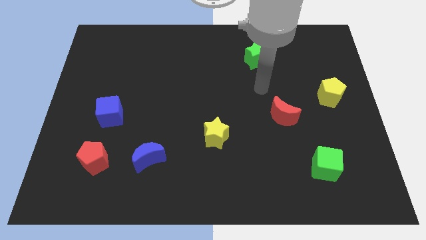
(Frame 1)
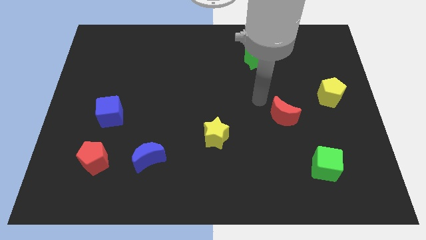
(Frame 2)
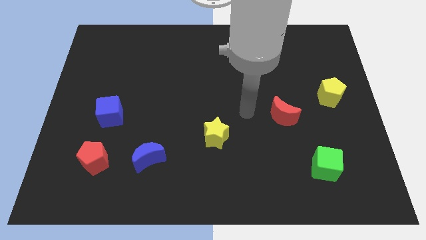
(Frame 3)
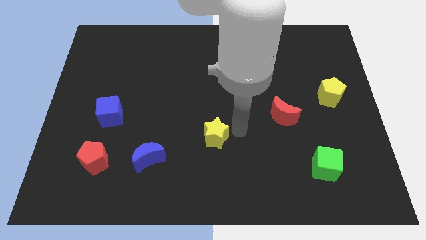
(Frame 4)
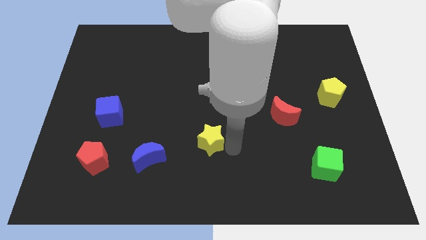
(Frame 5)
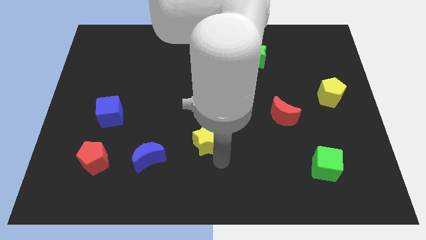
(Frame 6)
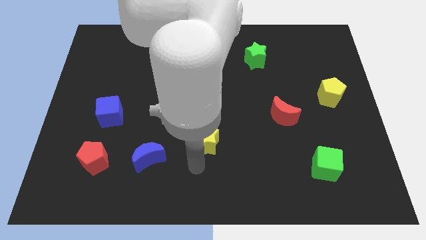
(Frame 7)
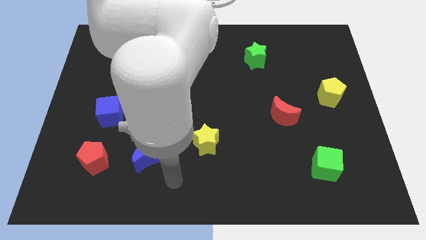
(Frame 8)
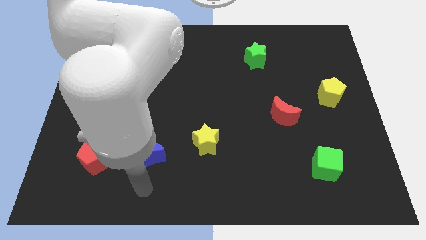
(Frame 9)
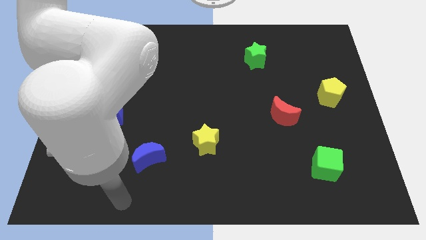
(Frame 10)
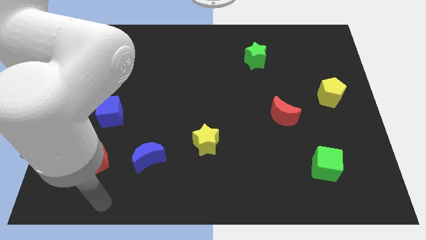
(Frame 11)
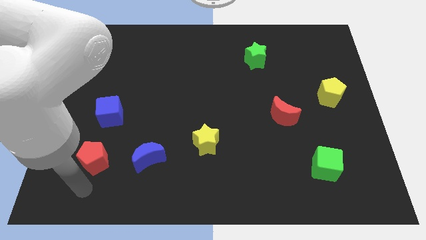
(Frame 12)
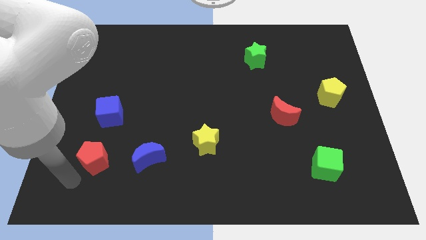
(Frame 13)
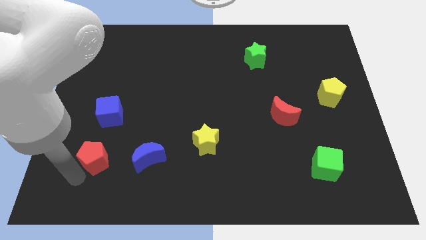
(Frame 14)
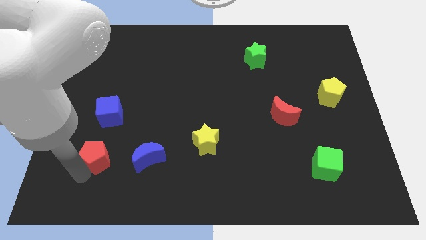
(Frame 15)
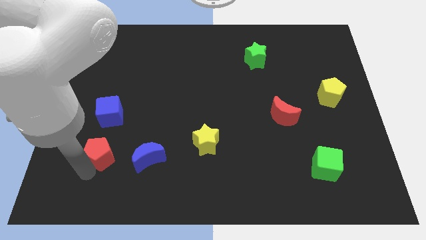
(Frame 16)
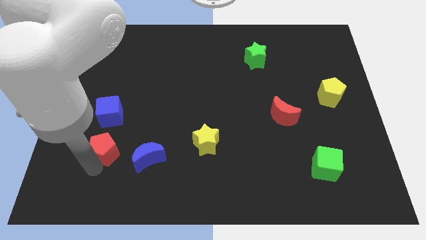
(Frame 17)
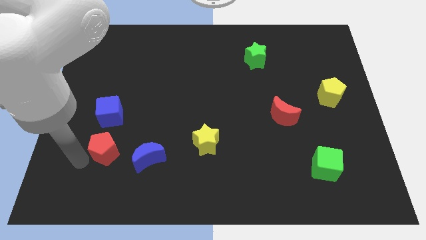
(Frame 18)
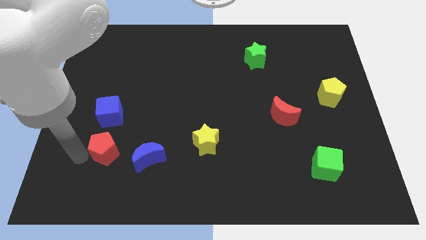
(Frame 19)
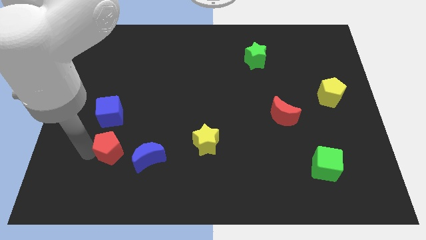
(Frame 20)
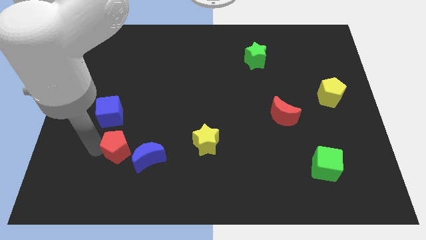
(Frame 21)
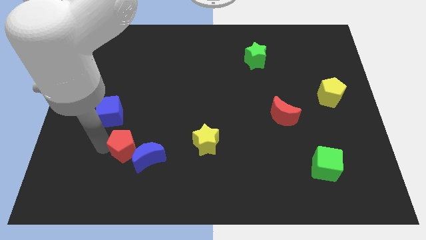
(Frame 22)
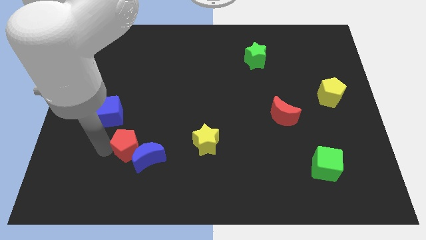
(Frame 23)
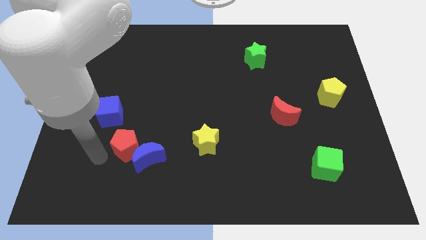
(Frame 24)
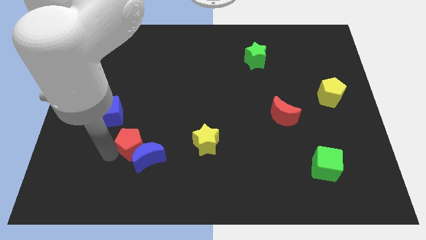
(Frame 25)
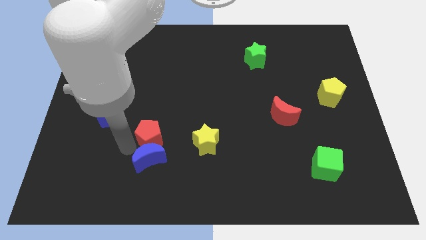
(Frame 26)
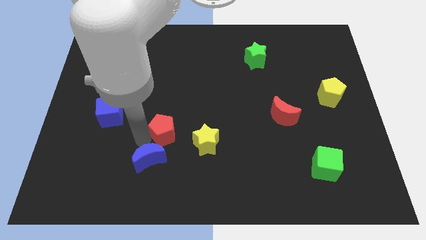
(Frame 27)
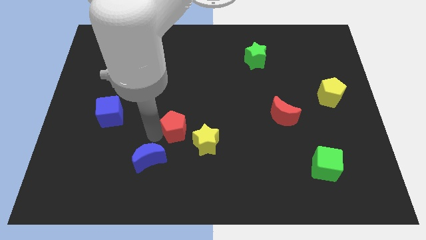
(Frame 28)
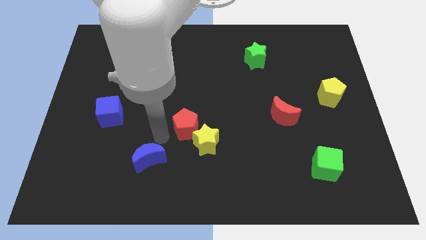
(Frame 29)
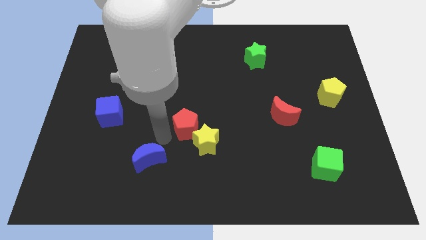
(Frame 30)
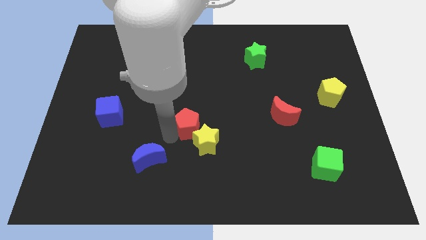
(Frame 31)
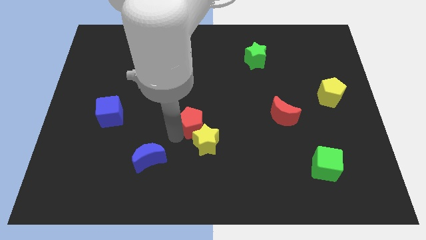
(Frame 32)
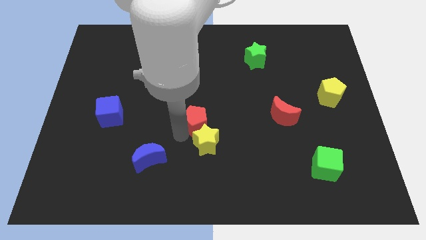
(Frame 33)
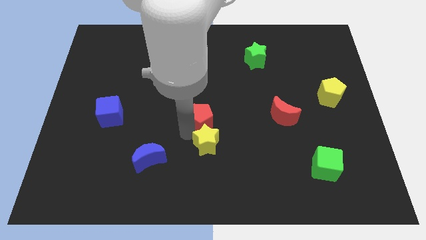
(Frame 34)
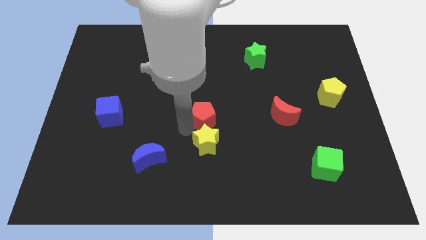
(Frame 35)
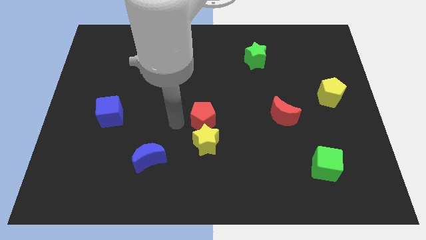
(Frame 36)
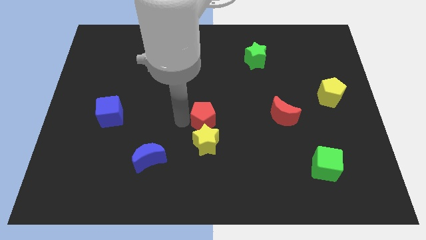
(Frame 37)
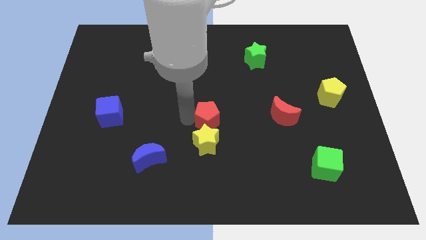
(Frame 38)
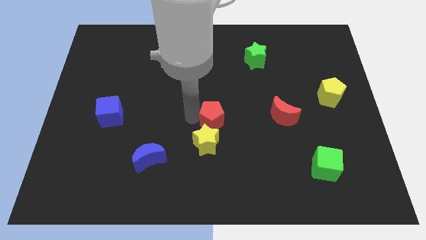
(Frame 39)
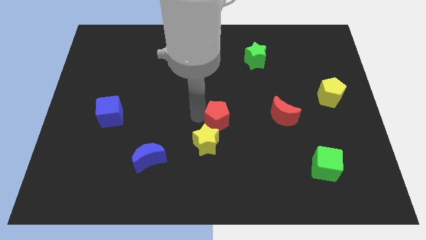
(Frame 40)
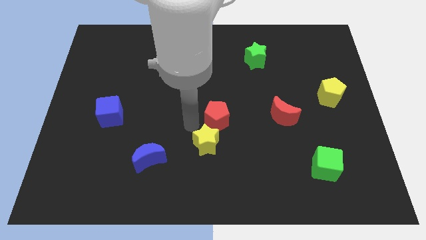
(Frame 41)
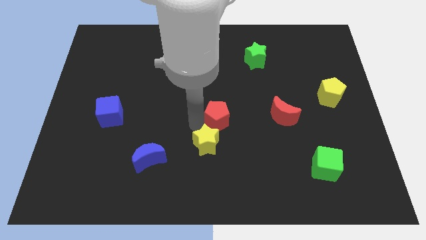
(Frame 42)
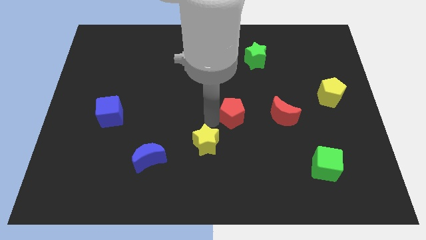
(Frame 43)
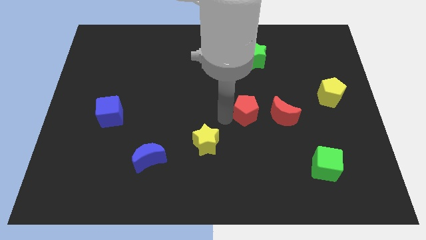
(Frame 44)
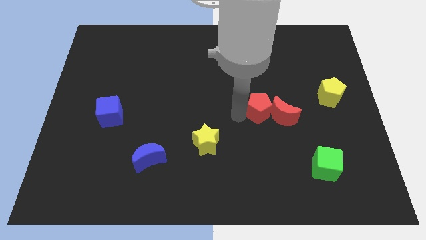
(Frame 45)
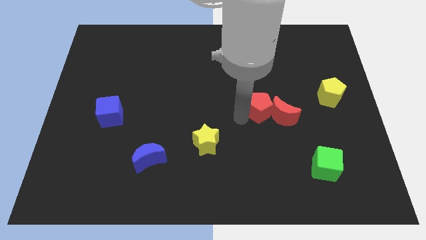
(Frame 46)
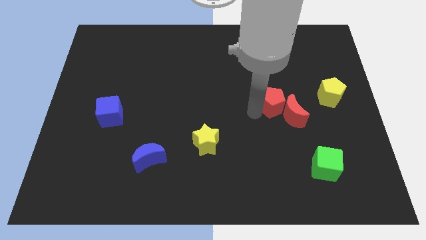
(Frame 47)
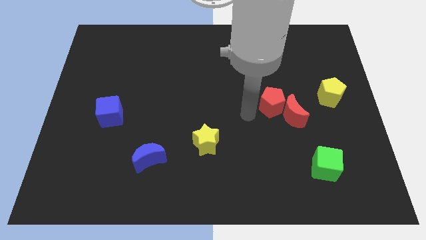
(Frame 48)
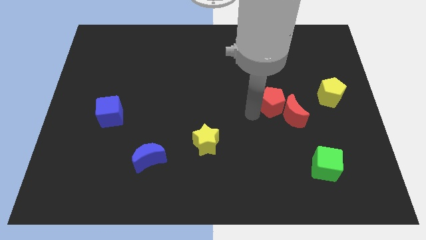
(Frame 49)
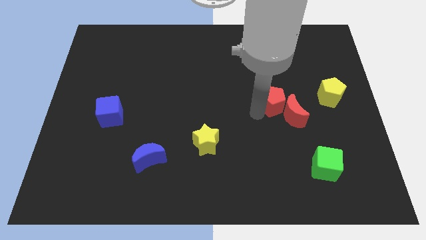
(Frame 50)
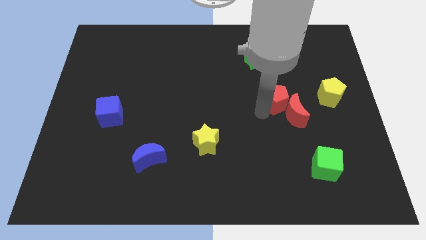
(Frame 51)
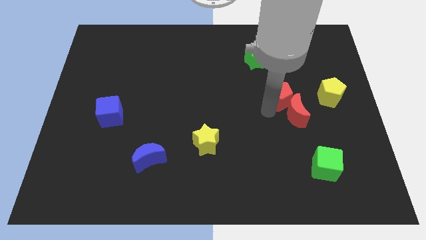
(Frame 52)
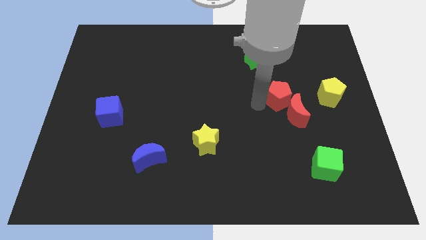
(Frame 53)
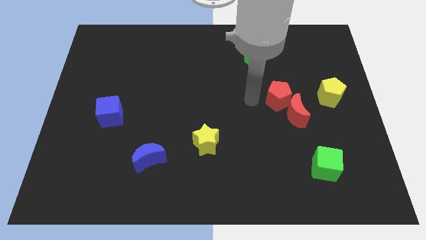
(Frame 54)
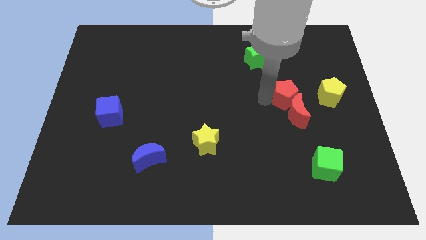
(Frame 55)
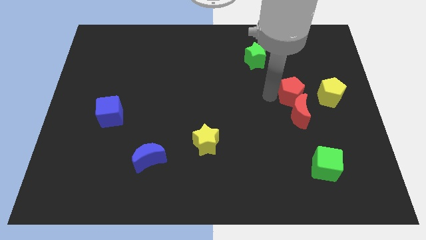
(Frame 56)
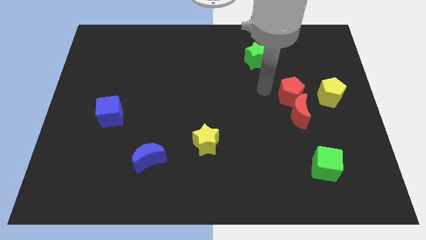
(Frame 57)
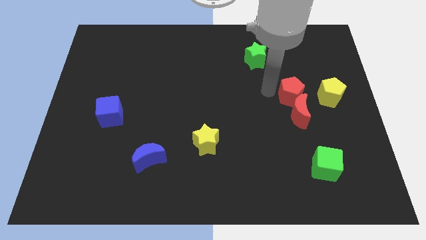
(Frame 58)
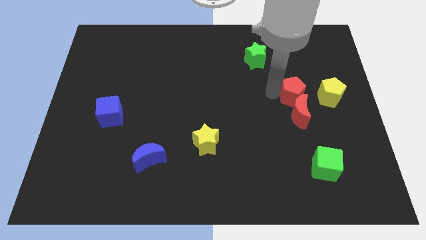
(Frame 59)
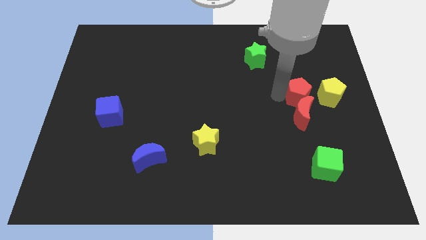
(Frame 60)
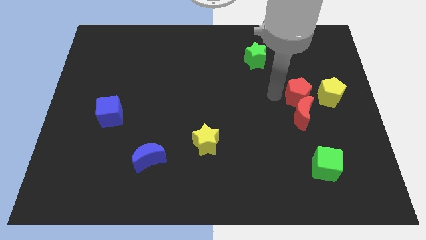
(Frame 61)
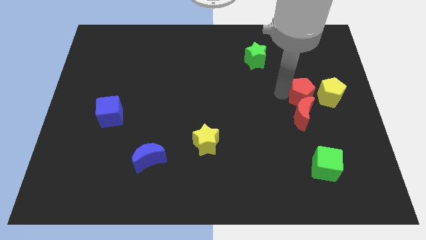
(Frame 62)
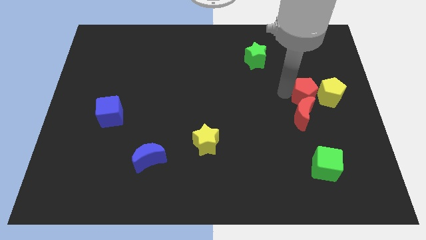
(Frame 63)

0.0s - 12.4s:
push the red pentagon to the yellow pentagon

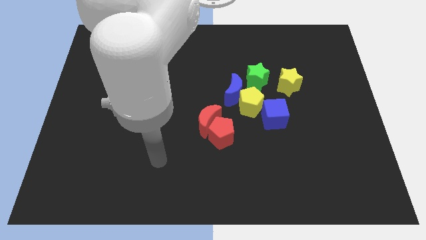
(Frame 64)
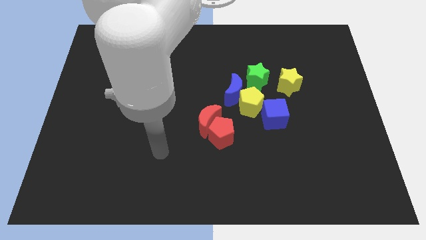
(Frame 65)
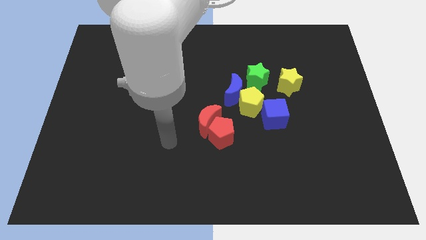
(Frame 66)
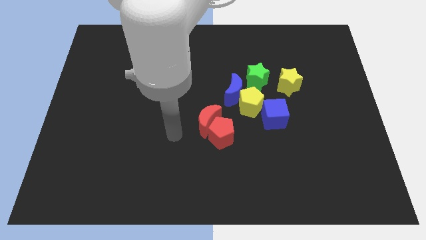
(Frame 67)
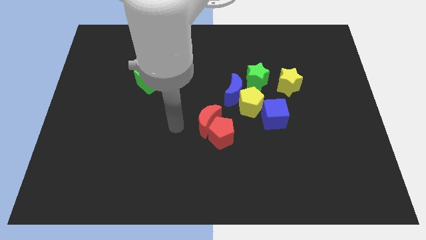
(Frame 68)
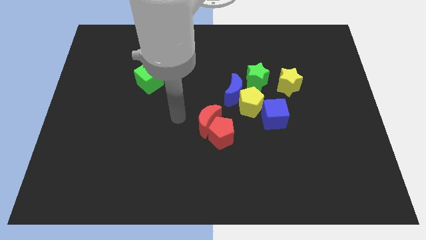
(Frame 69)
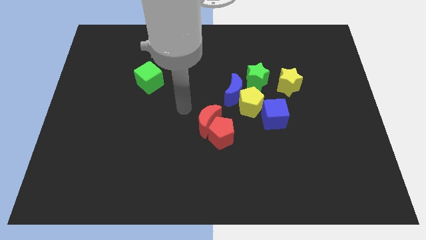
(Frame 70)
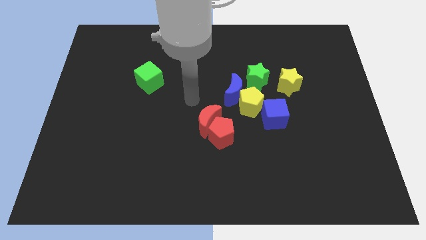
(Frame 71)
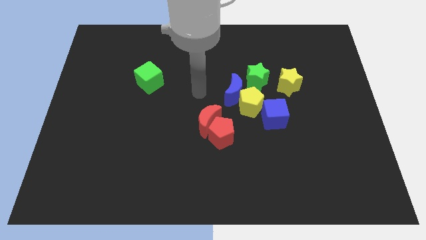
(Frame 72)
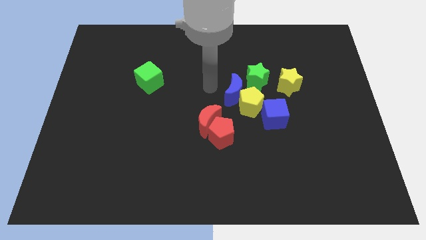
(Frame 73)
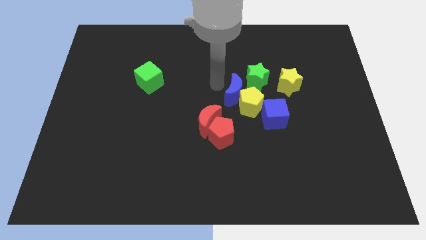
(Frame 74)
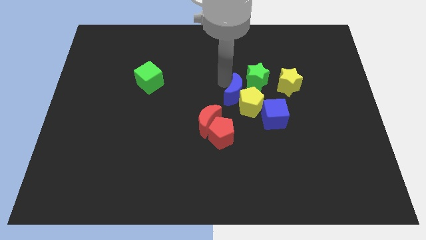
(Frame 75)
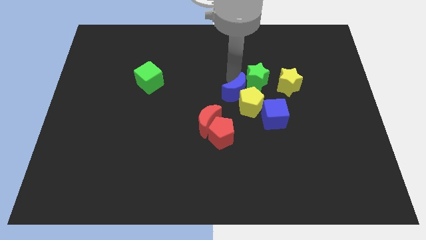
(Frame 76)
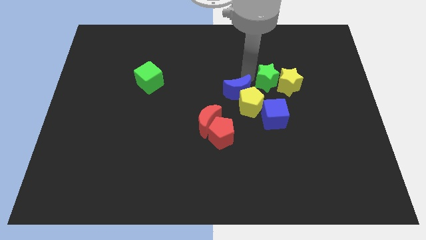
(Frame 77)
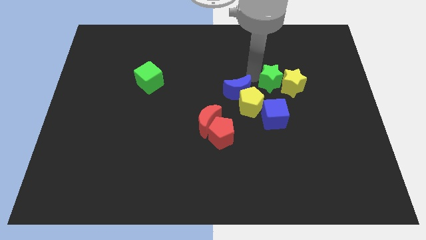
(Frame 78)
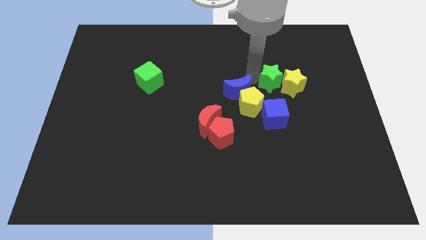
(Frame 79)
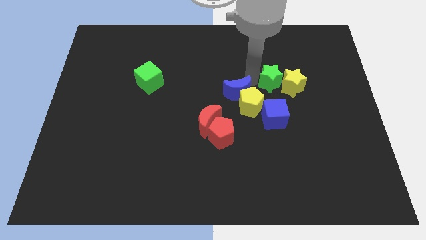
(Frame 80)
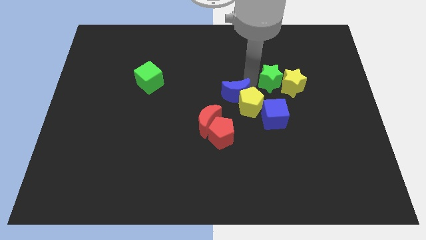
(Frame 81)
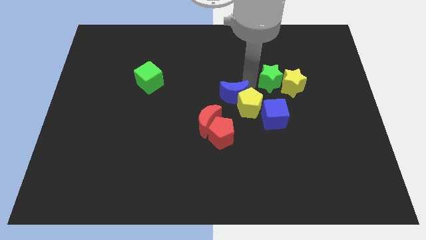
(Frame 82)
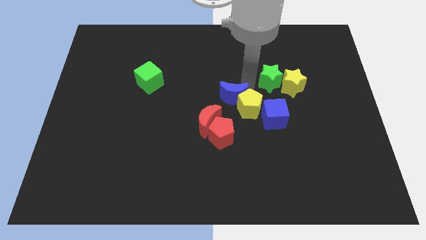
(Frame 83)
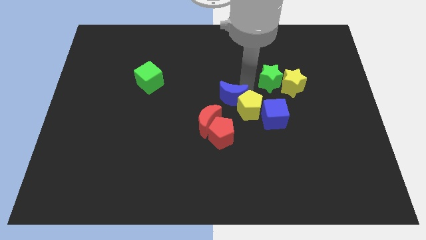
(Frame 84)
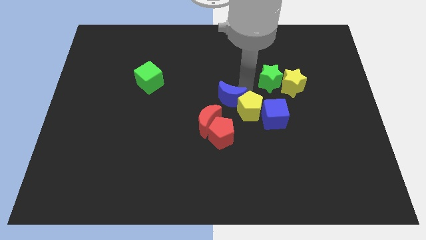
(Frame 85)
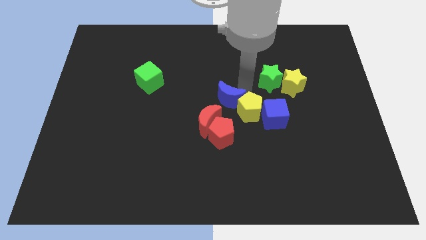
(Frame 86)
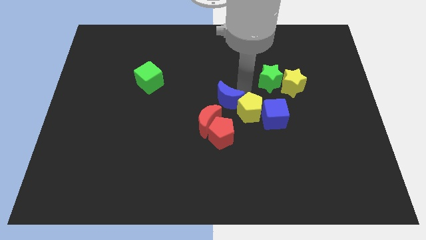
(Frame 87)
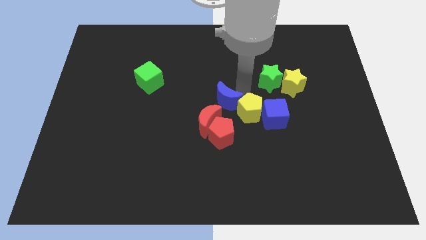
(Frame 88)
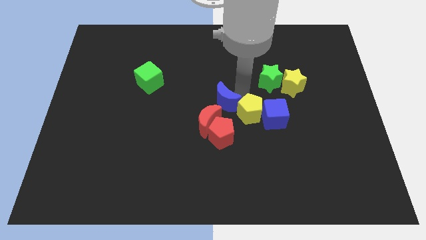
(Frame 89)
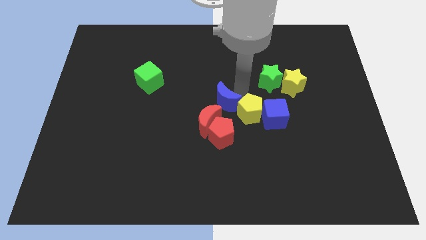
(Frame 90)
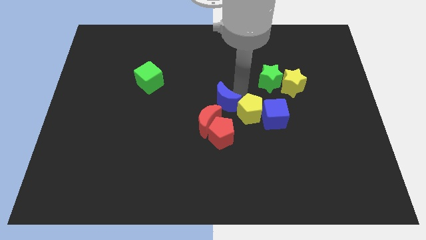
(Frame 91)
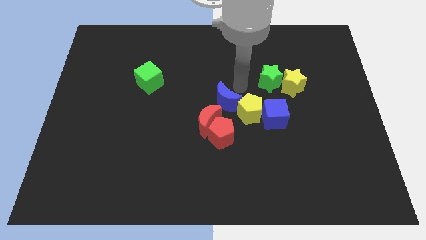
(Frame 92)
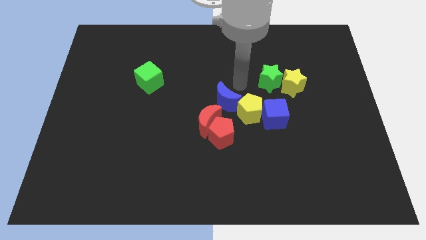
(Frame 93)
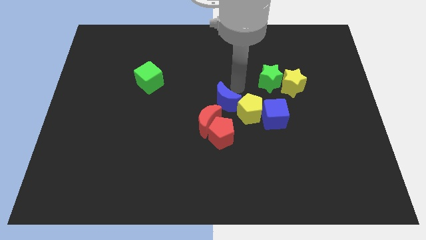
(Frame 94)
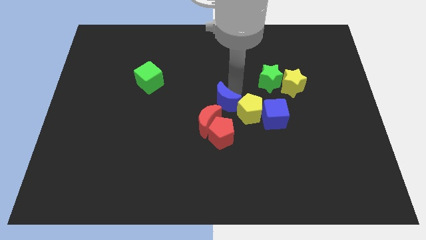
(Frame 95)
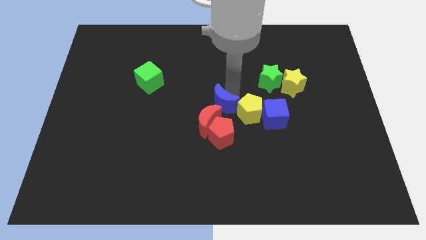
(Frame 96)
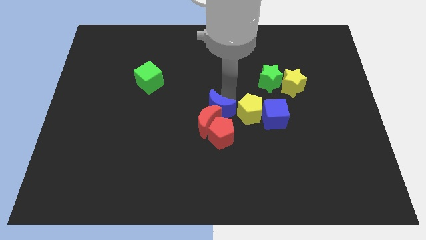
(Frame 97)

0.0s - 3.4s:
put the blue moon next to the red moon
